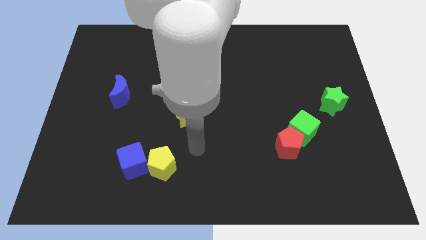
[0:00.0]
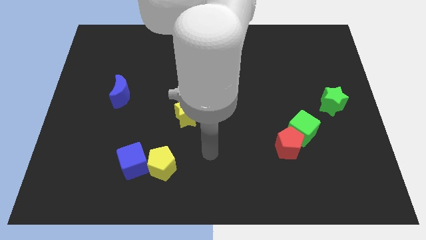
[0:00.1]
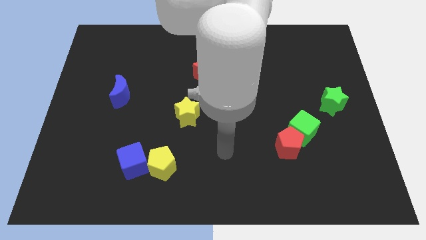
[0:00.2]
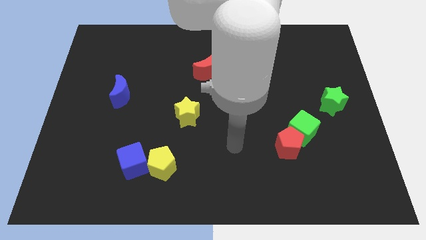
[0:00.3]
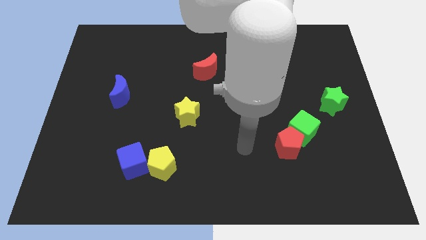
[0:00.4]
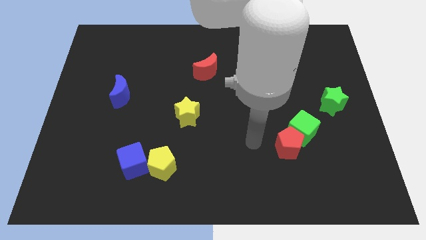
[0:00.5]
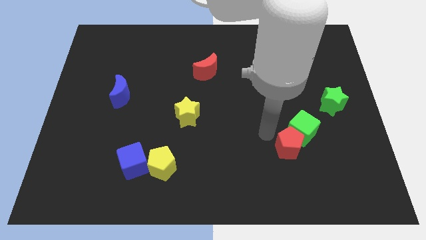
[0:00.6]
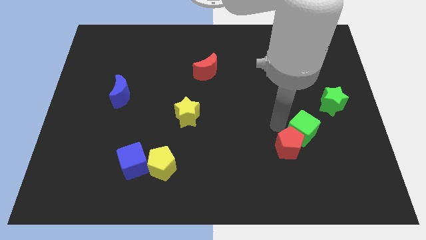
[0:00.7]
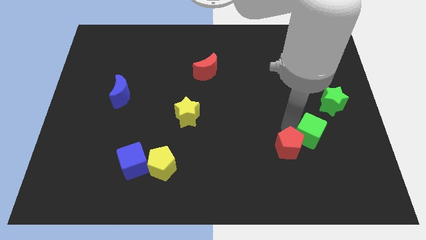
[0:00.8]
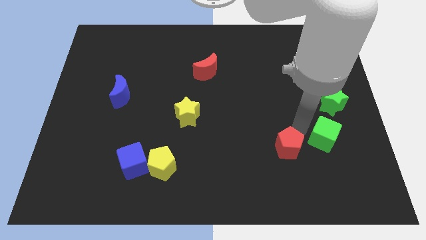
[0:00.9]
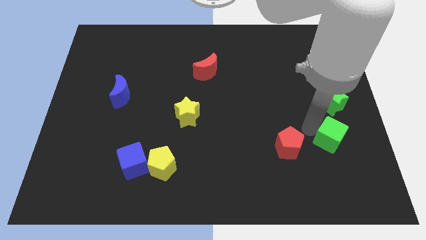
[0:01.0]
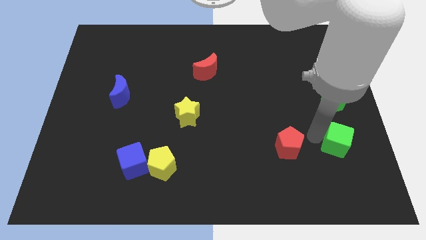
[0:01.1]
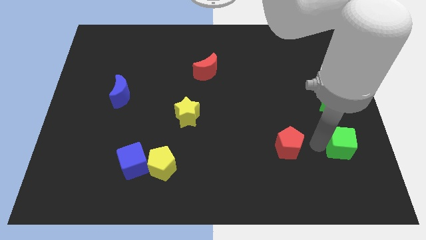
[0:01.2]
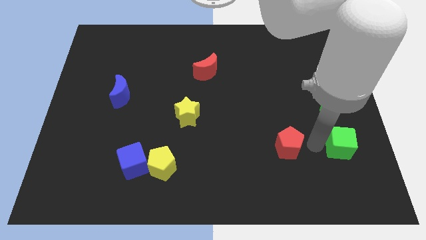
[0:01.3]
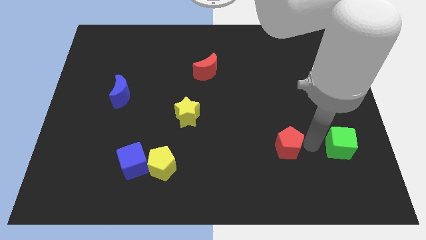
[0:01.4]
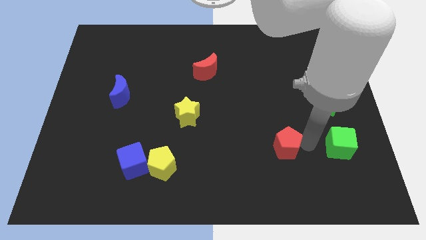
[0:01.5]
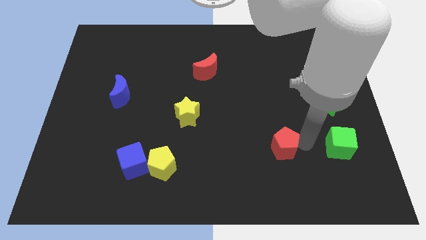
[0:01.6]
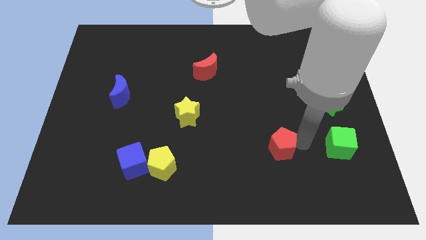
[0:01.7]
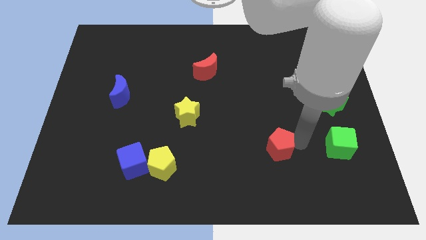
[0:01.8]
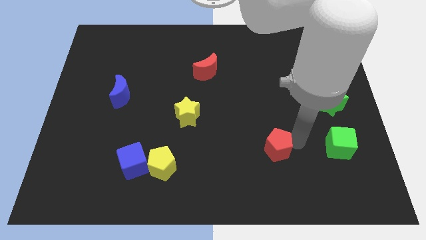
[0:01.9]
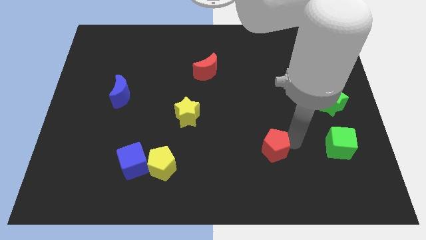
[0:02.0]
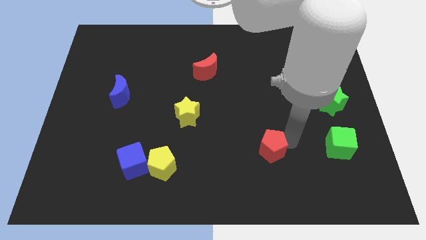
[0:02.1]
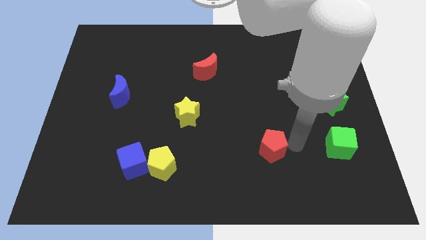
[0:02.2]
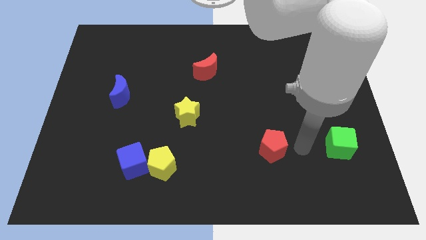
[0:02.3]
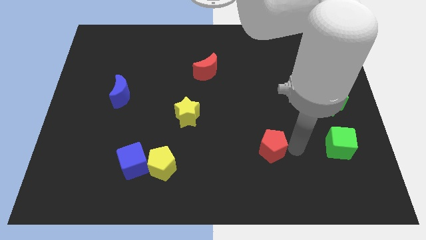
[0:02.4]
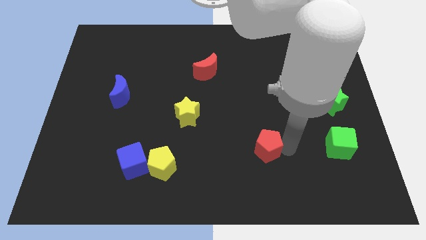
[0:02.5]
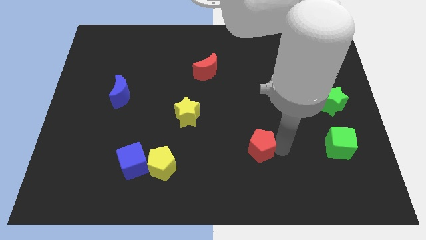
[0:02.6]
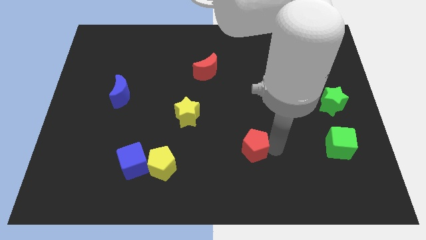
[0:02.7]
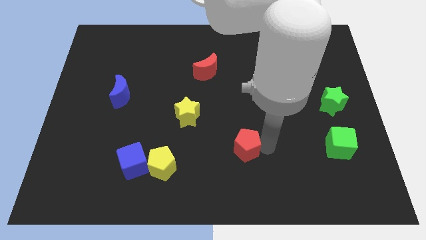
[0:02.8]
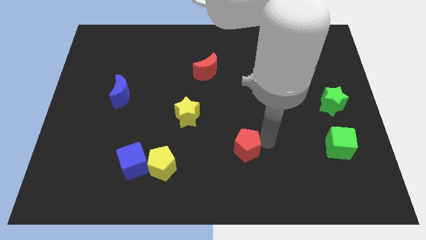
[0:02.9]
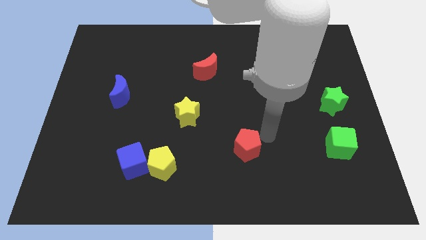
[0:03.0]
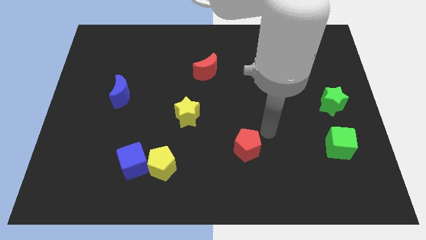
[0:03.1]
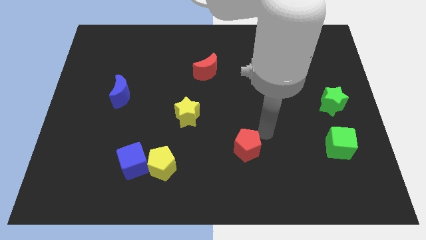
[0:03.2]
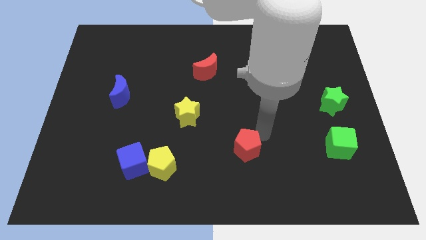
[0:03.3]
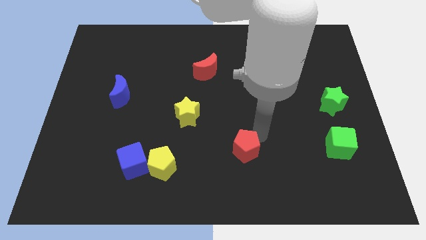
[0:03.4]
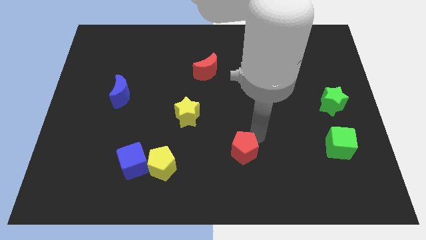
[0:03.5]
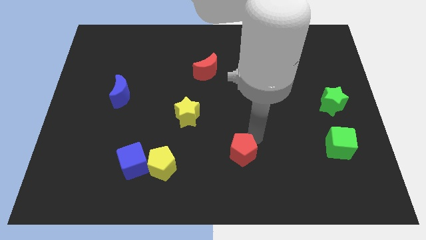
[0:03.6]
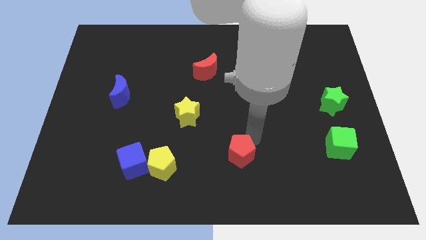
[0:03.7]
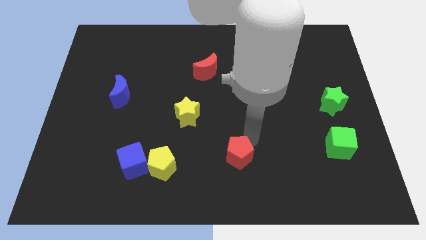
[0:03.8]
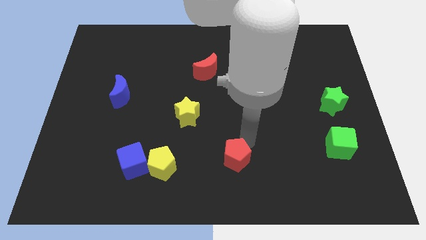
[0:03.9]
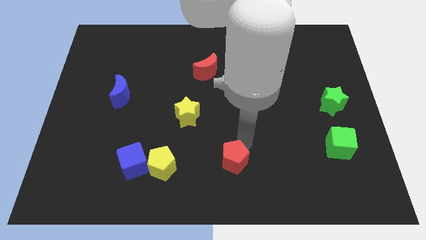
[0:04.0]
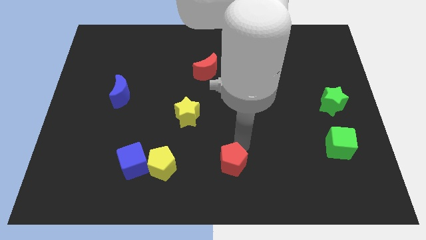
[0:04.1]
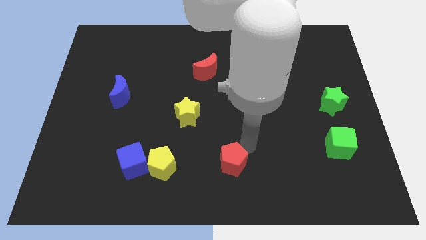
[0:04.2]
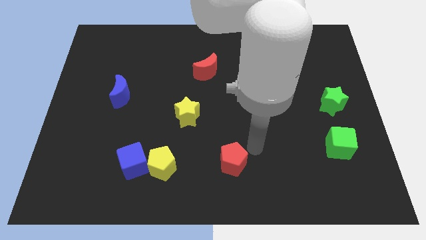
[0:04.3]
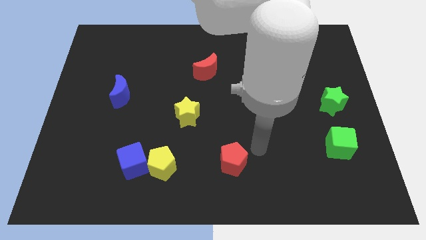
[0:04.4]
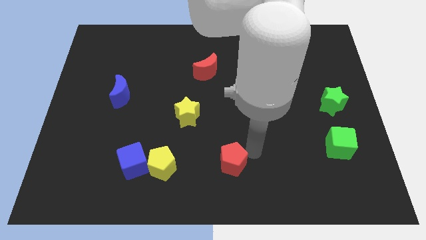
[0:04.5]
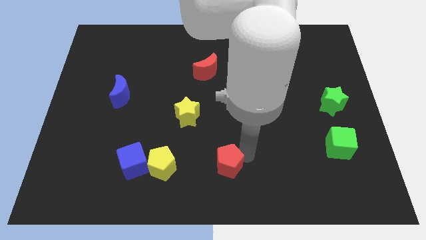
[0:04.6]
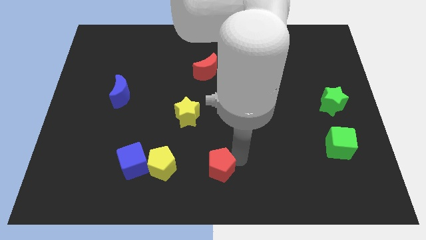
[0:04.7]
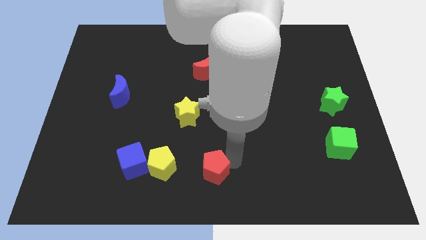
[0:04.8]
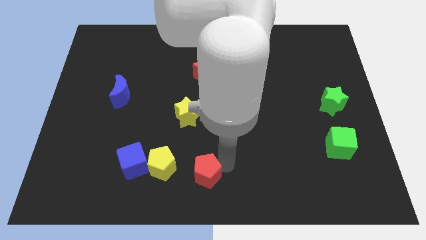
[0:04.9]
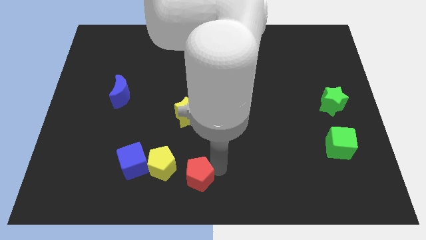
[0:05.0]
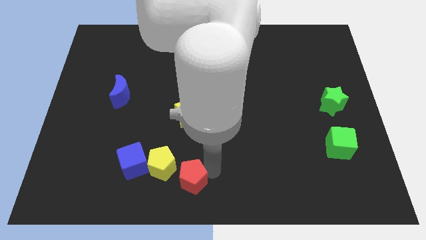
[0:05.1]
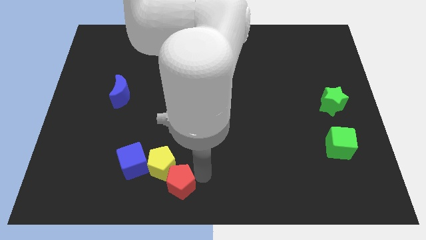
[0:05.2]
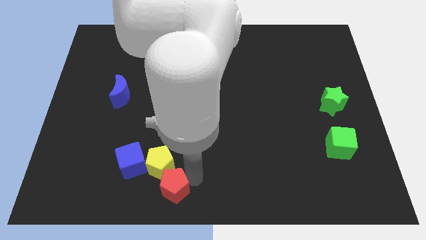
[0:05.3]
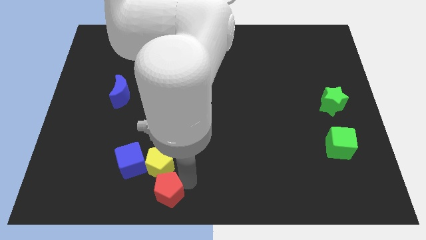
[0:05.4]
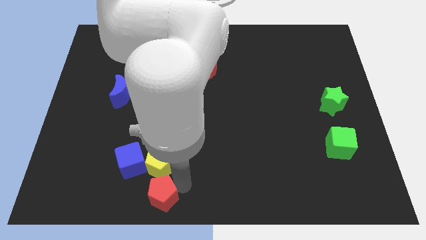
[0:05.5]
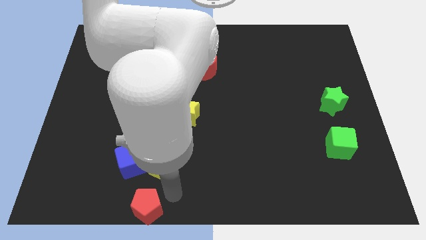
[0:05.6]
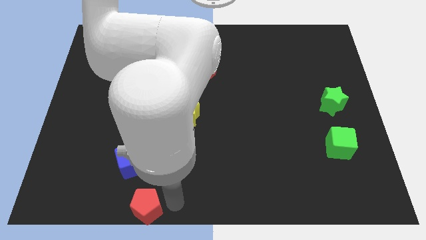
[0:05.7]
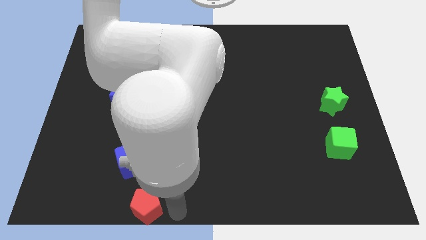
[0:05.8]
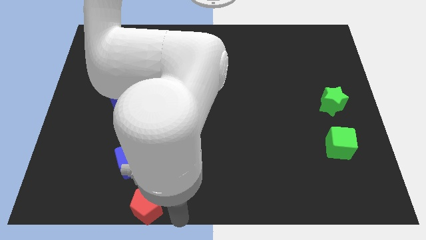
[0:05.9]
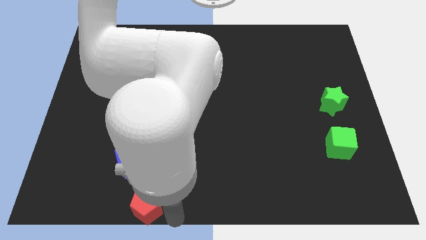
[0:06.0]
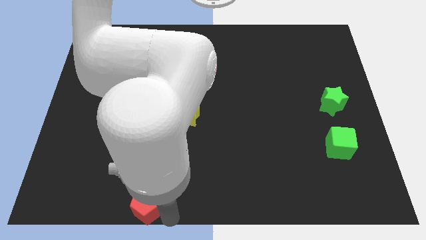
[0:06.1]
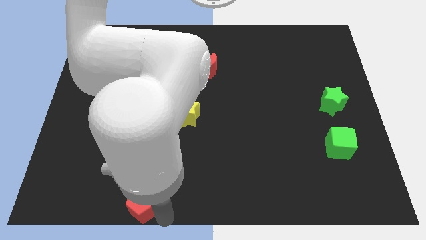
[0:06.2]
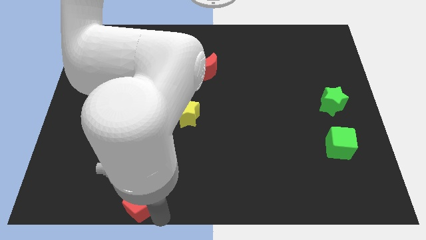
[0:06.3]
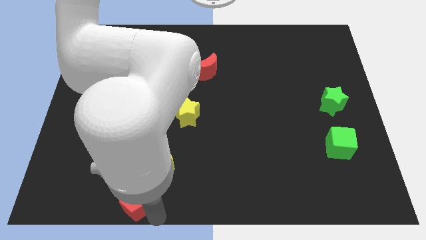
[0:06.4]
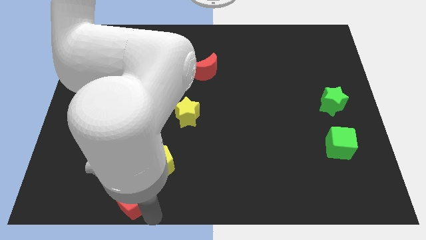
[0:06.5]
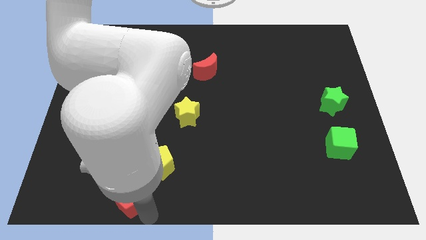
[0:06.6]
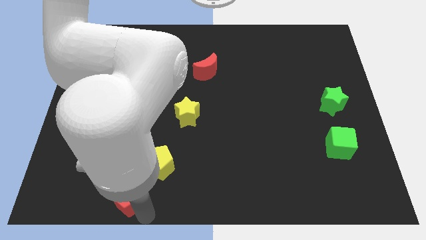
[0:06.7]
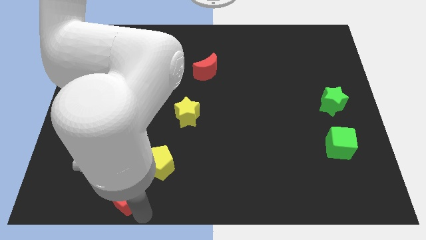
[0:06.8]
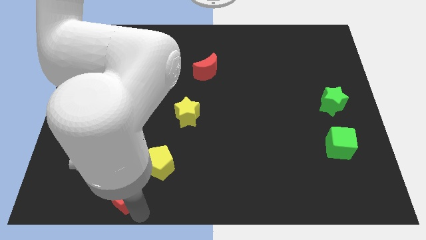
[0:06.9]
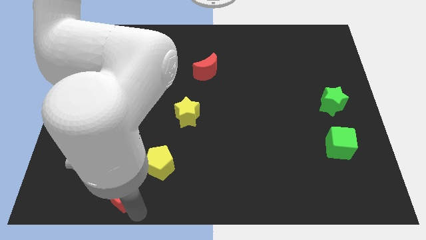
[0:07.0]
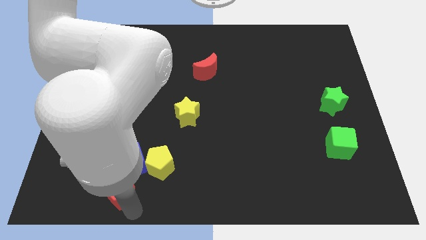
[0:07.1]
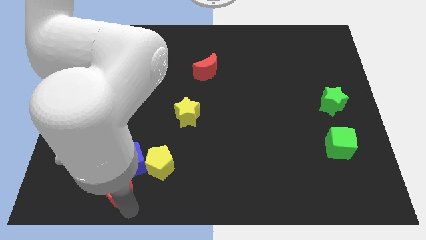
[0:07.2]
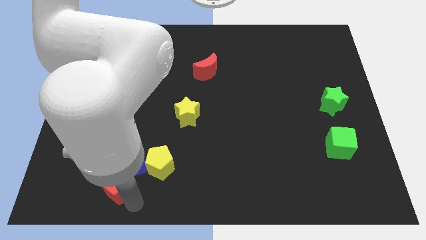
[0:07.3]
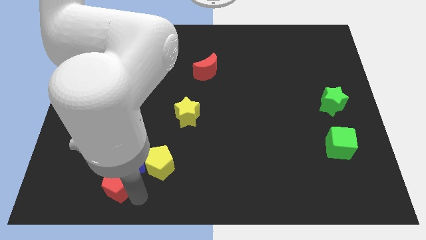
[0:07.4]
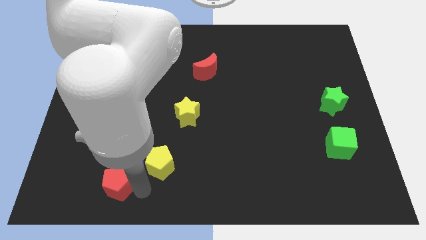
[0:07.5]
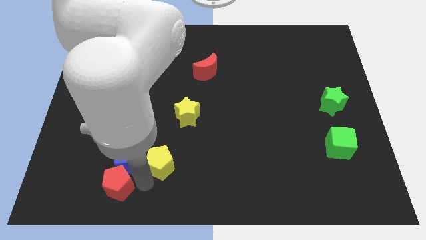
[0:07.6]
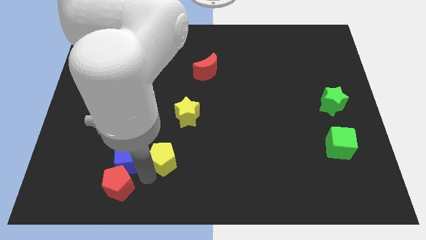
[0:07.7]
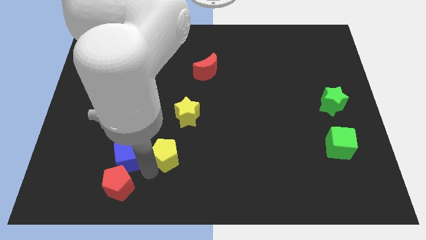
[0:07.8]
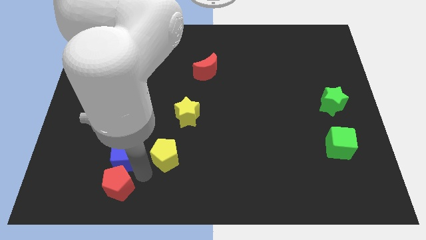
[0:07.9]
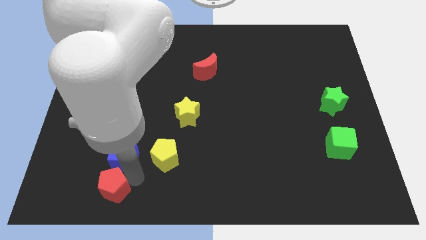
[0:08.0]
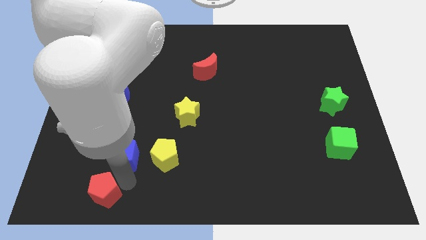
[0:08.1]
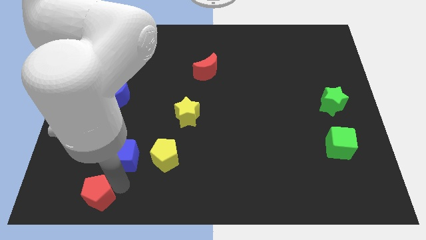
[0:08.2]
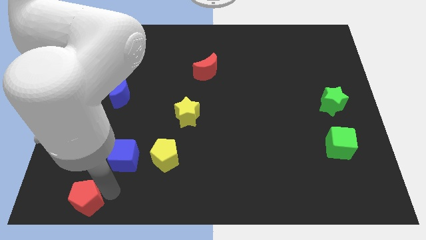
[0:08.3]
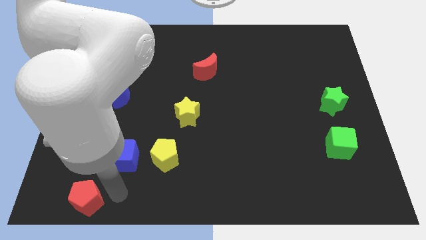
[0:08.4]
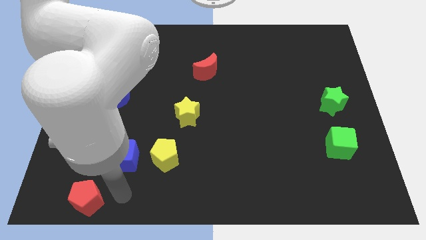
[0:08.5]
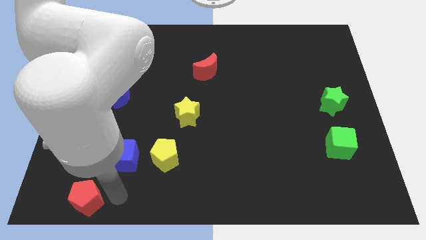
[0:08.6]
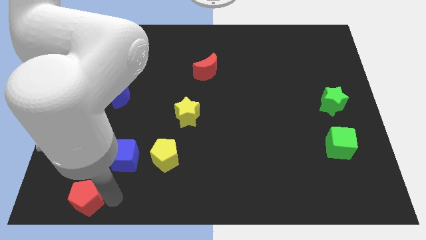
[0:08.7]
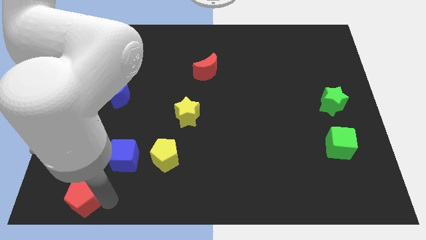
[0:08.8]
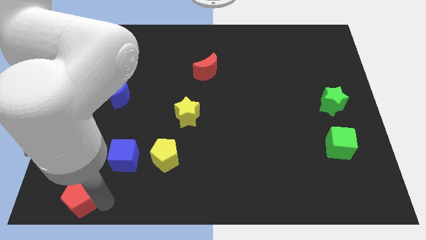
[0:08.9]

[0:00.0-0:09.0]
slide the red pentagon to the bottom left
